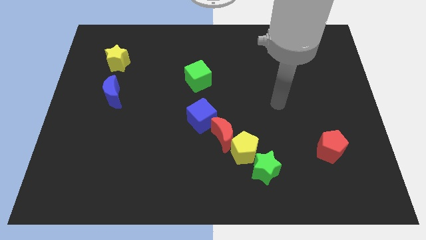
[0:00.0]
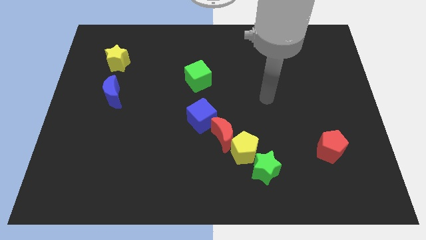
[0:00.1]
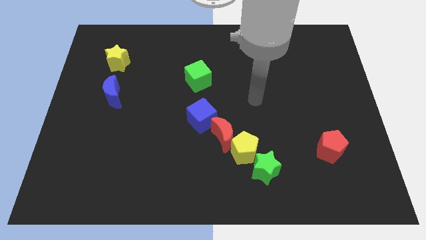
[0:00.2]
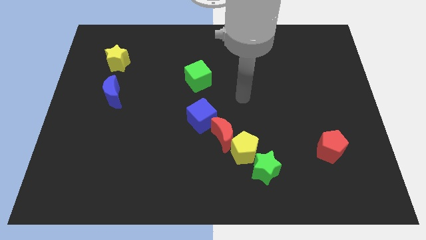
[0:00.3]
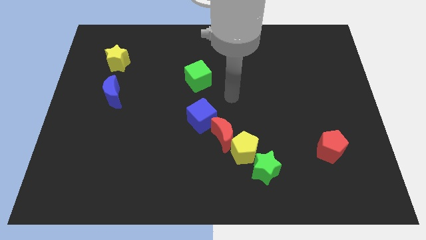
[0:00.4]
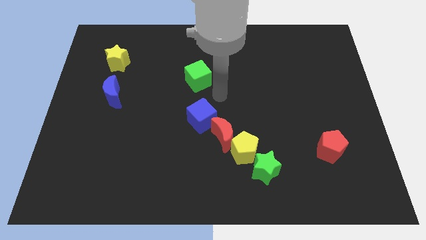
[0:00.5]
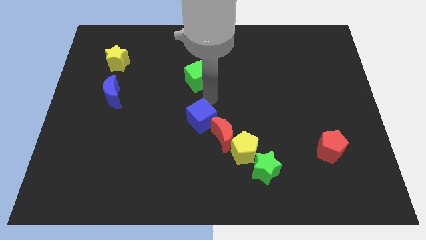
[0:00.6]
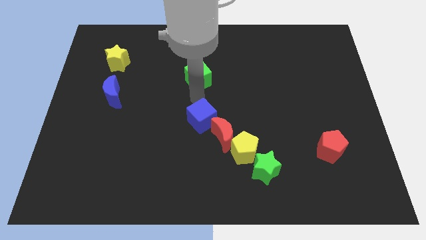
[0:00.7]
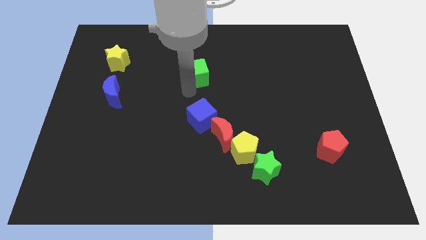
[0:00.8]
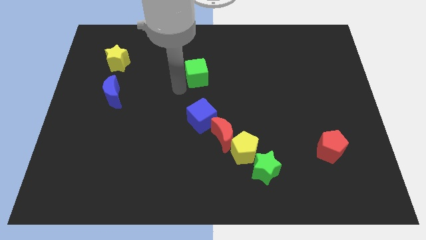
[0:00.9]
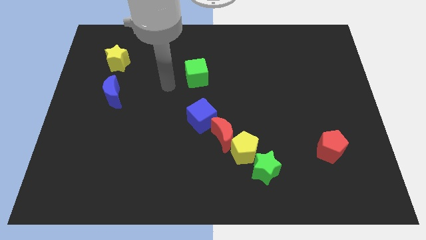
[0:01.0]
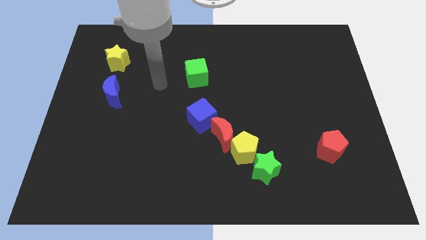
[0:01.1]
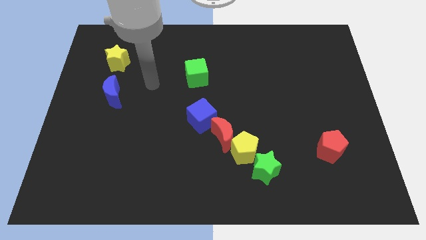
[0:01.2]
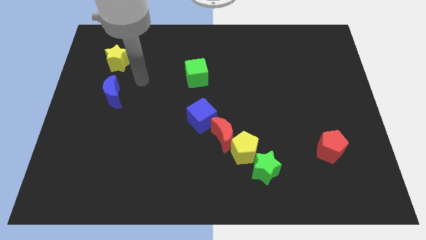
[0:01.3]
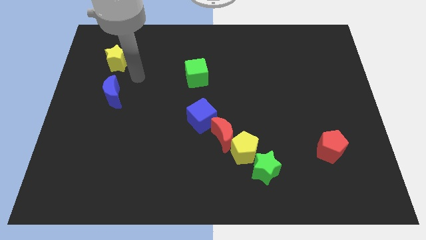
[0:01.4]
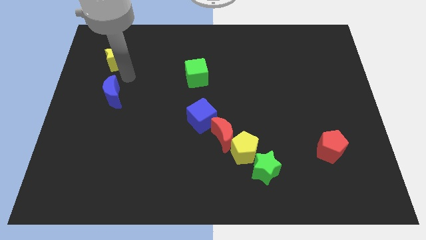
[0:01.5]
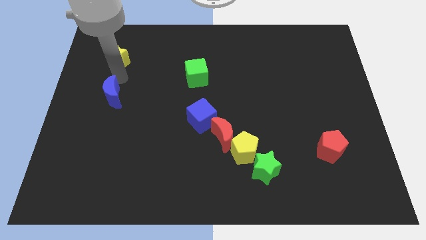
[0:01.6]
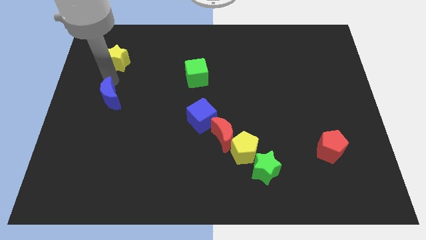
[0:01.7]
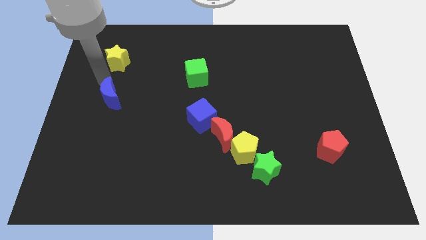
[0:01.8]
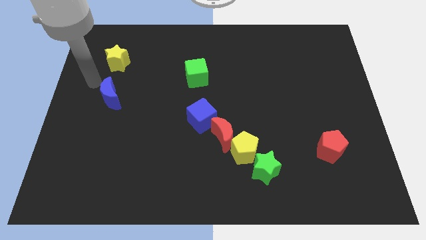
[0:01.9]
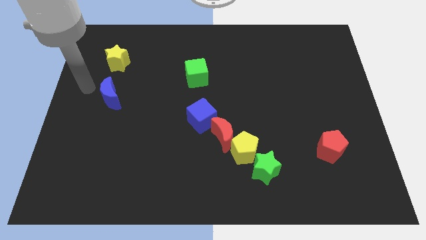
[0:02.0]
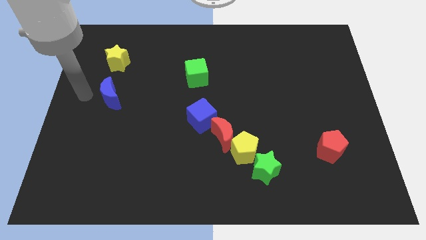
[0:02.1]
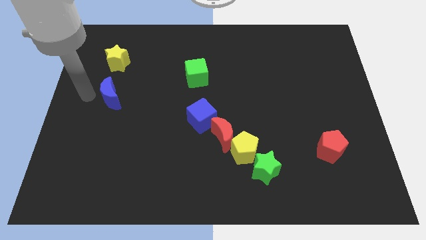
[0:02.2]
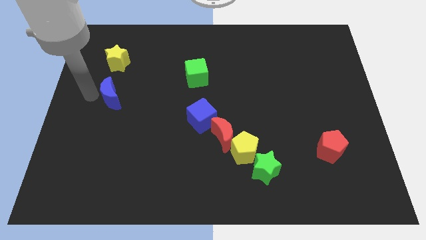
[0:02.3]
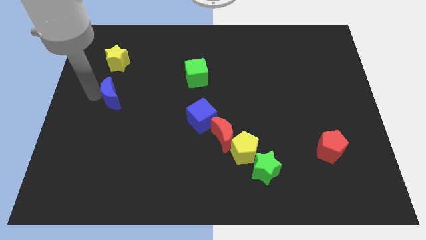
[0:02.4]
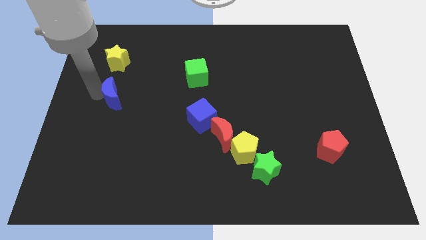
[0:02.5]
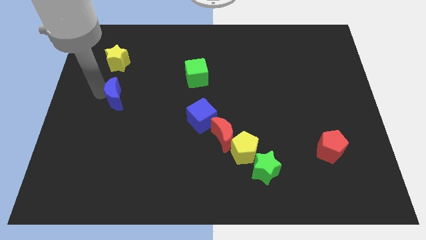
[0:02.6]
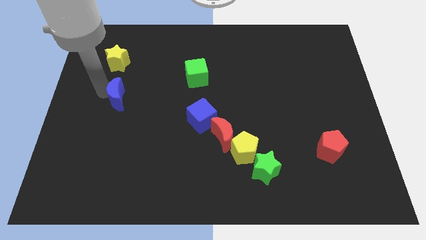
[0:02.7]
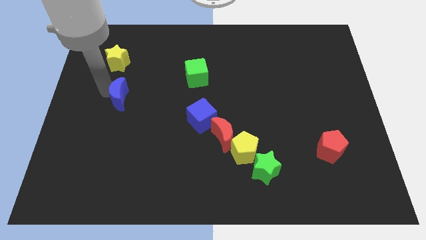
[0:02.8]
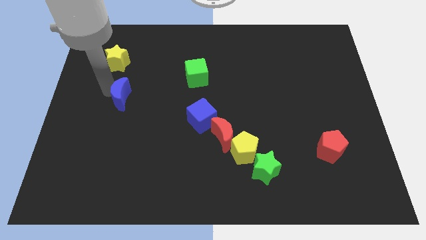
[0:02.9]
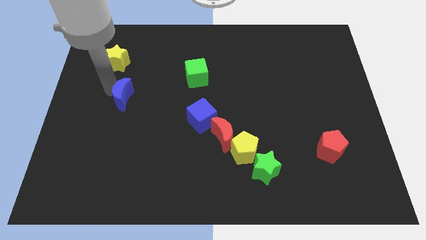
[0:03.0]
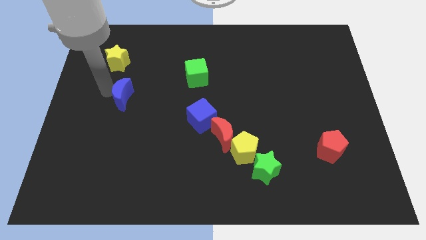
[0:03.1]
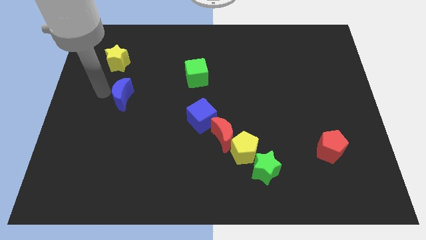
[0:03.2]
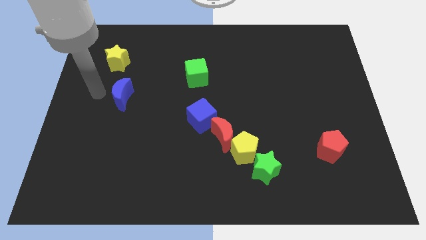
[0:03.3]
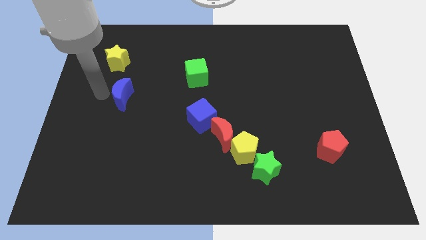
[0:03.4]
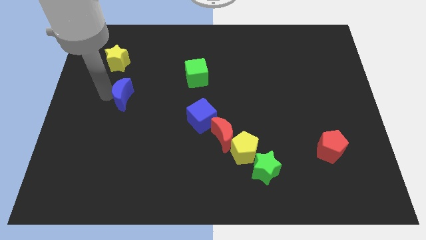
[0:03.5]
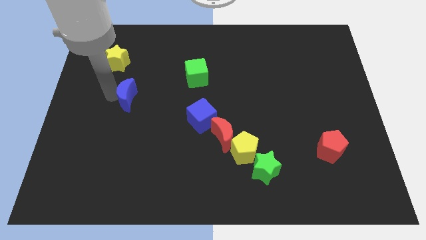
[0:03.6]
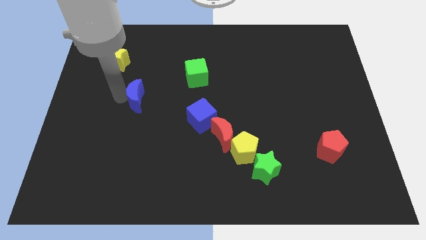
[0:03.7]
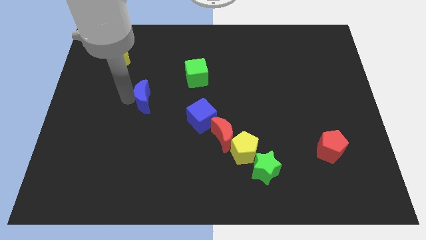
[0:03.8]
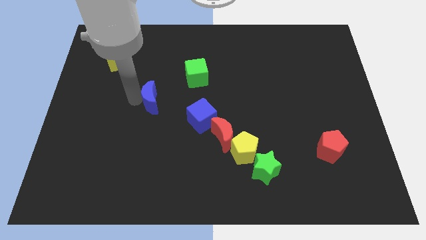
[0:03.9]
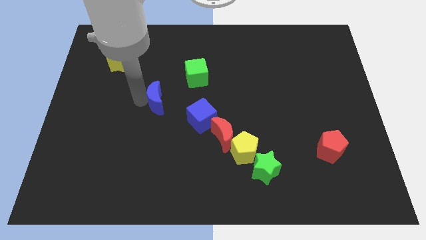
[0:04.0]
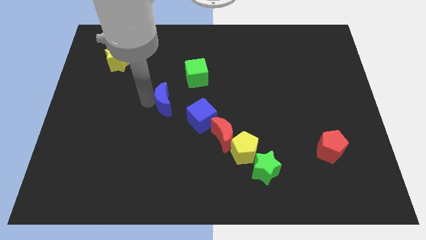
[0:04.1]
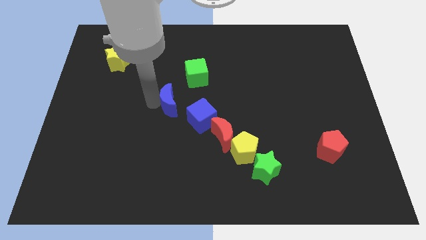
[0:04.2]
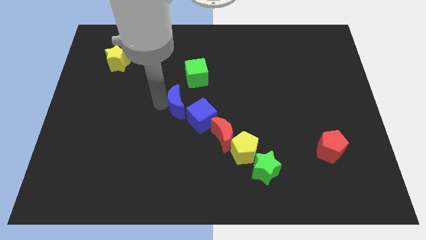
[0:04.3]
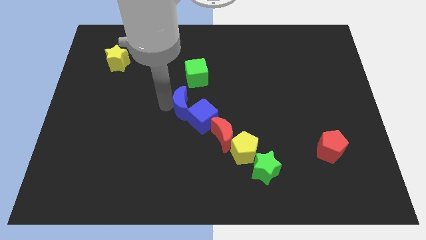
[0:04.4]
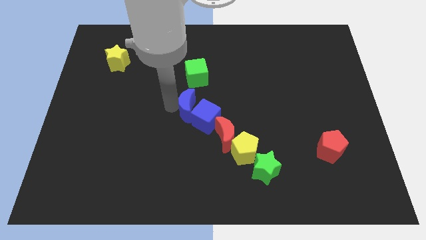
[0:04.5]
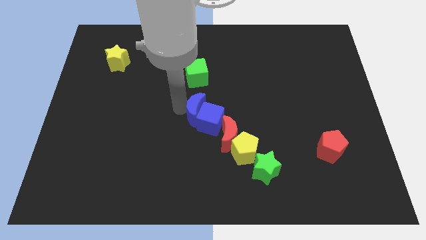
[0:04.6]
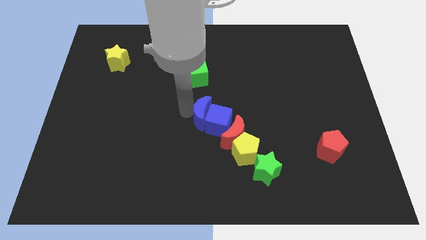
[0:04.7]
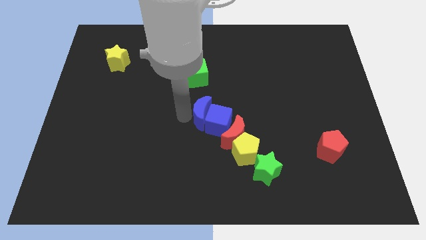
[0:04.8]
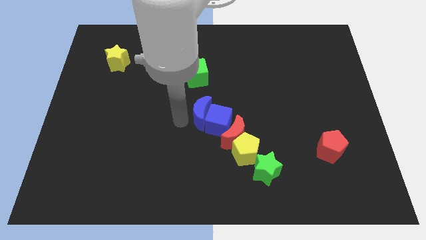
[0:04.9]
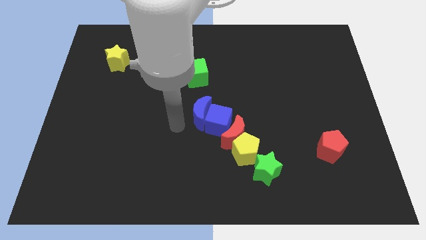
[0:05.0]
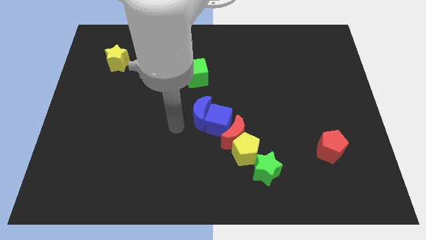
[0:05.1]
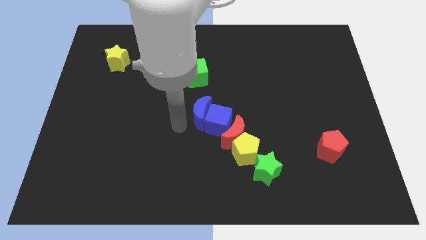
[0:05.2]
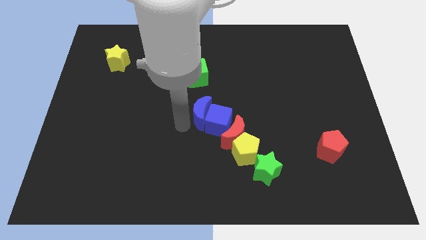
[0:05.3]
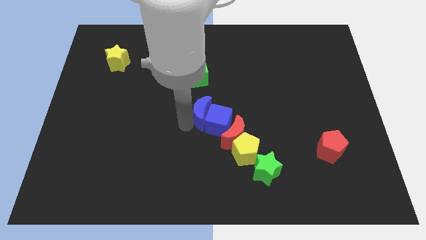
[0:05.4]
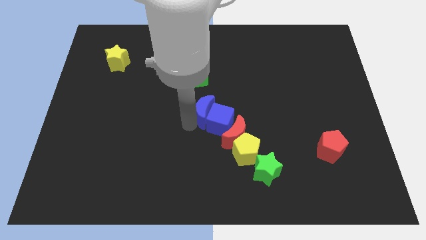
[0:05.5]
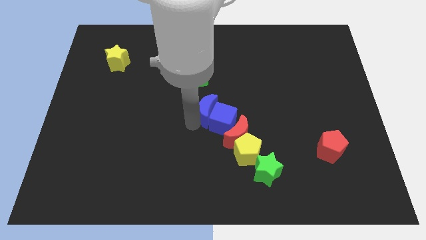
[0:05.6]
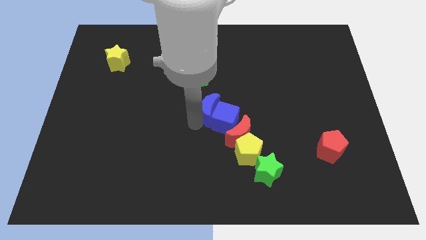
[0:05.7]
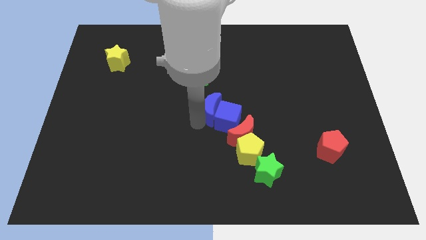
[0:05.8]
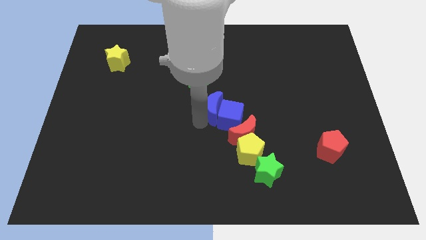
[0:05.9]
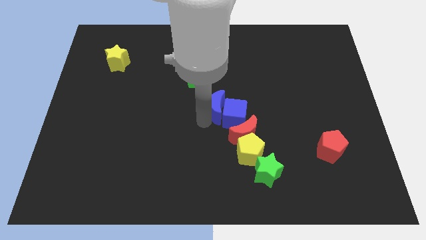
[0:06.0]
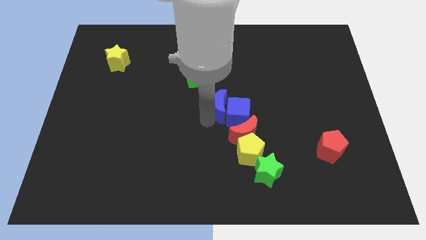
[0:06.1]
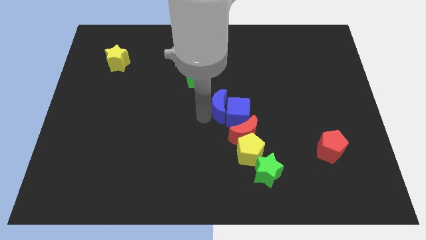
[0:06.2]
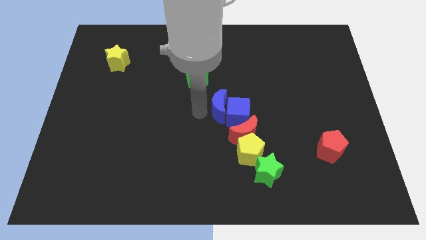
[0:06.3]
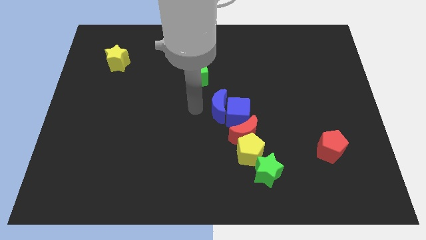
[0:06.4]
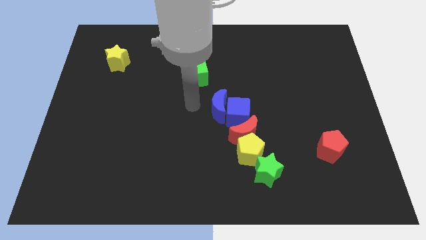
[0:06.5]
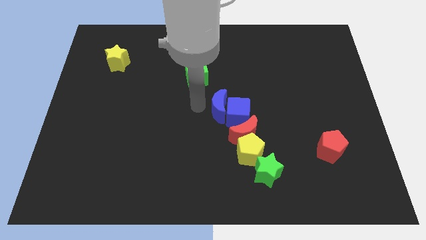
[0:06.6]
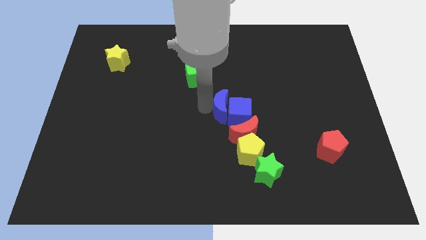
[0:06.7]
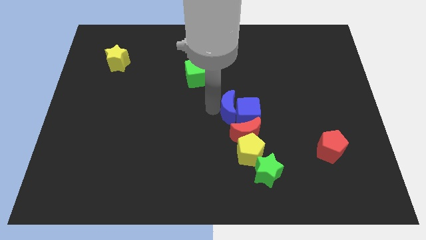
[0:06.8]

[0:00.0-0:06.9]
push the blue moon to the top of the yellow pentagon

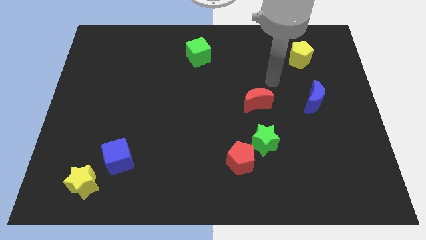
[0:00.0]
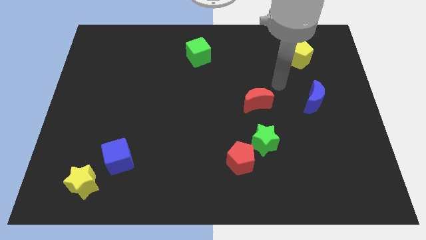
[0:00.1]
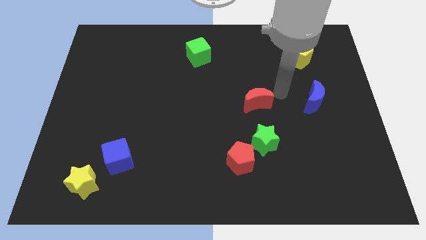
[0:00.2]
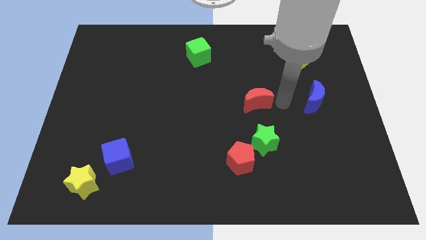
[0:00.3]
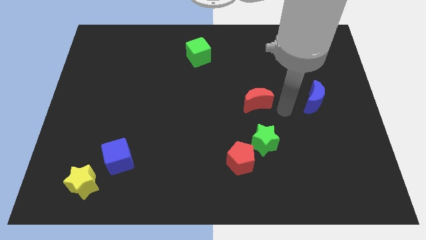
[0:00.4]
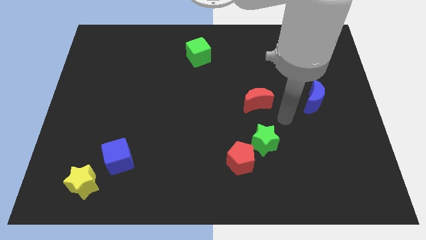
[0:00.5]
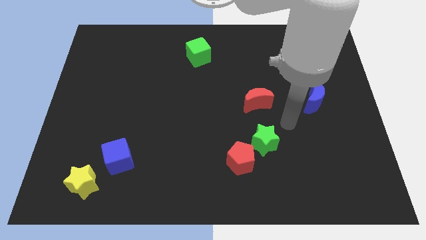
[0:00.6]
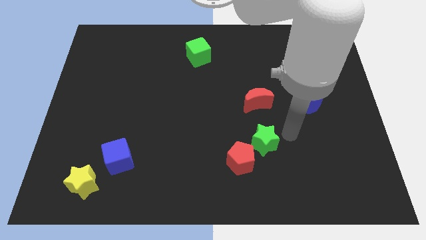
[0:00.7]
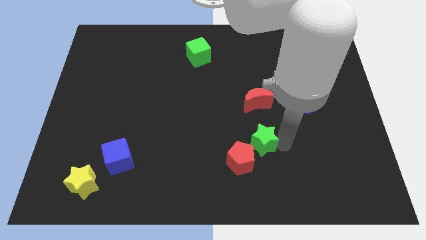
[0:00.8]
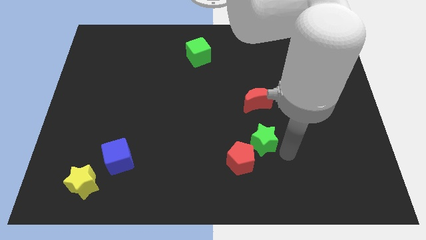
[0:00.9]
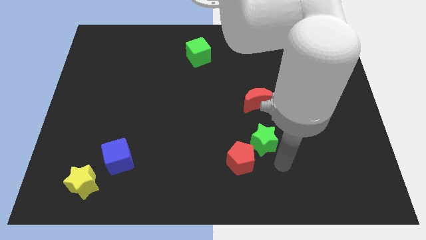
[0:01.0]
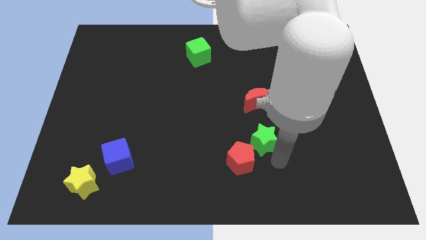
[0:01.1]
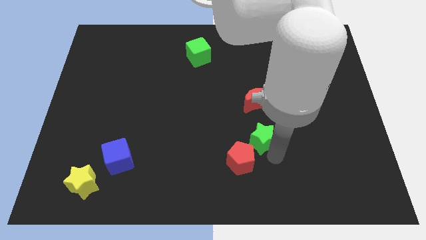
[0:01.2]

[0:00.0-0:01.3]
move the green star to the top side of the red pentagon
